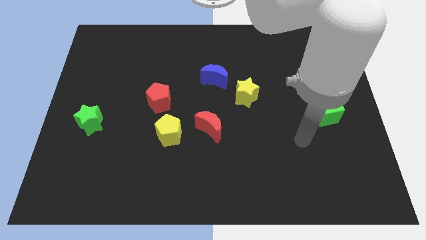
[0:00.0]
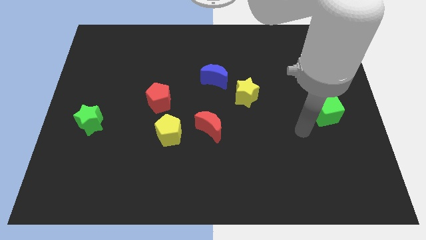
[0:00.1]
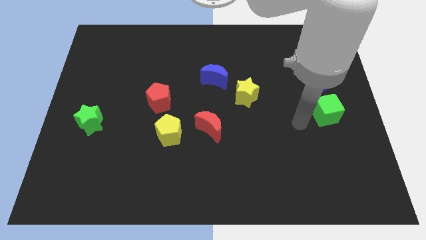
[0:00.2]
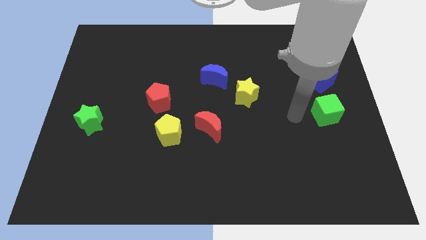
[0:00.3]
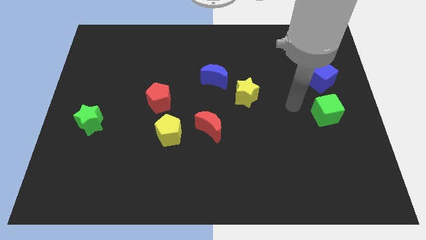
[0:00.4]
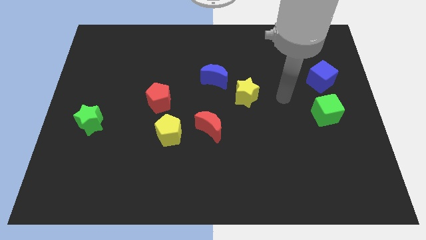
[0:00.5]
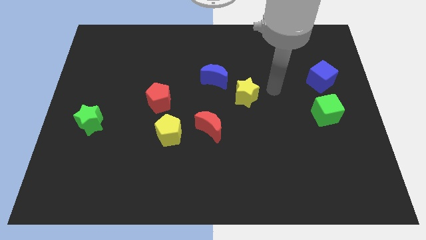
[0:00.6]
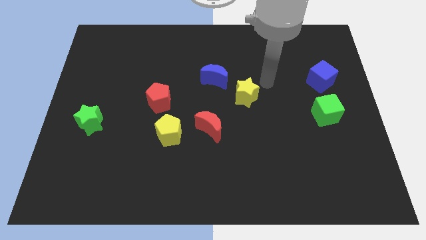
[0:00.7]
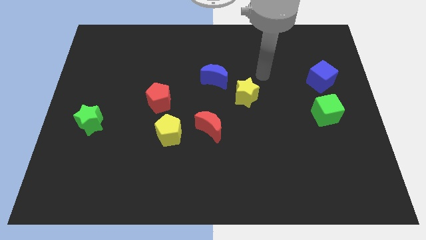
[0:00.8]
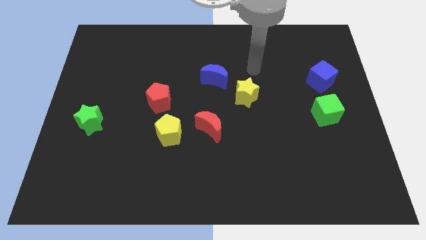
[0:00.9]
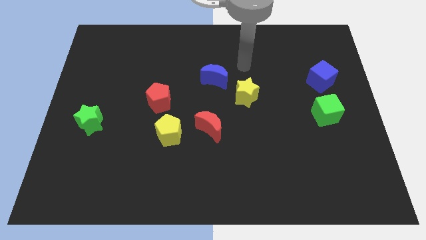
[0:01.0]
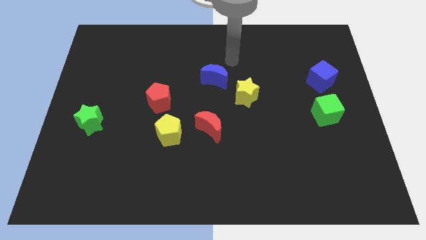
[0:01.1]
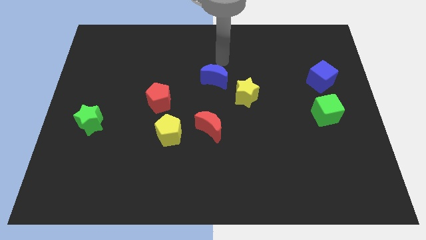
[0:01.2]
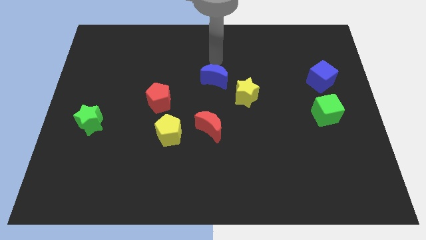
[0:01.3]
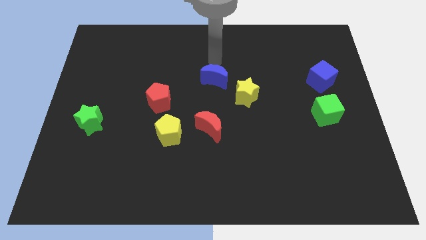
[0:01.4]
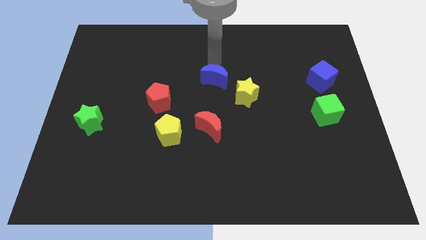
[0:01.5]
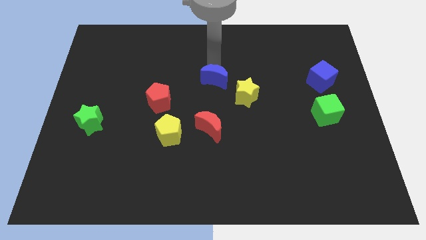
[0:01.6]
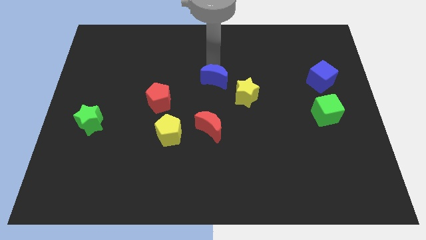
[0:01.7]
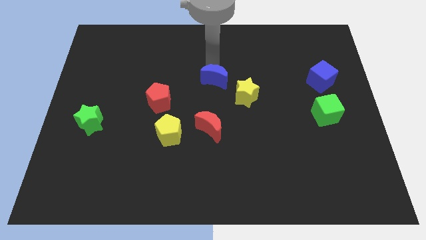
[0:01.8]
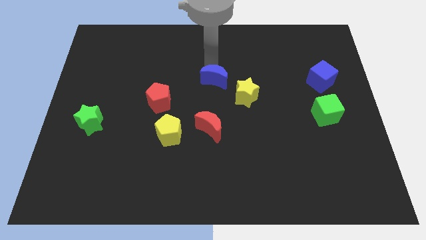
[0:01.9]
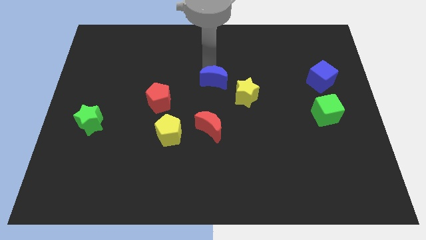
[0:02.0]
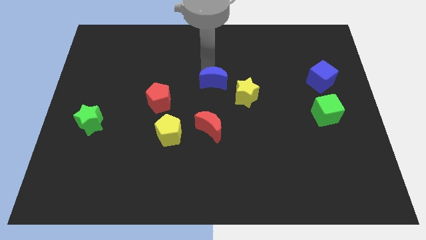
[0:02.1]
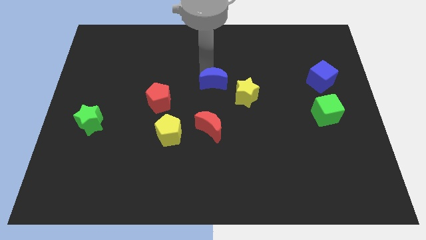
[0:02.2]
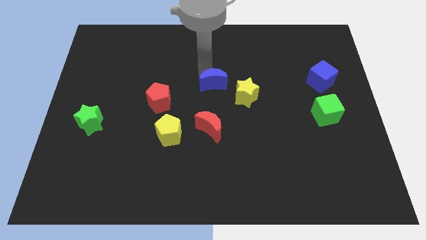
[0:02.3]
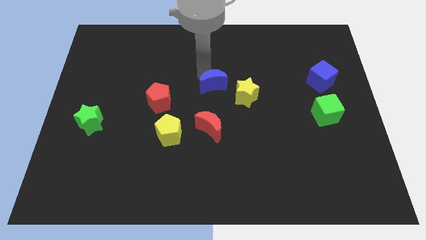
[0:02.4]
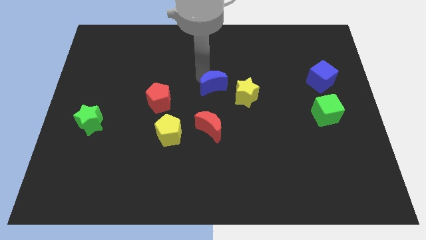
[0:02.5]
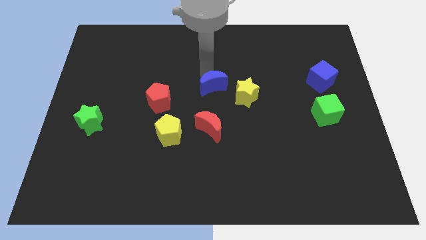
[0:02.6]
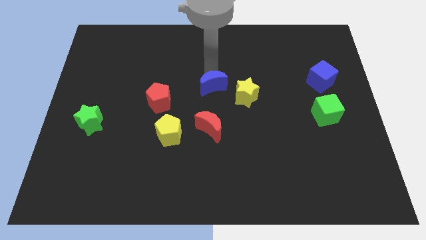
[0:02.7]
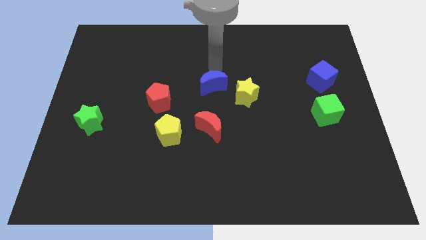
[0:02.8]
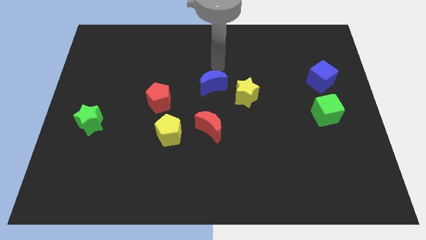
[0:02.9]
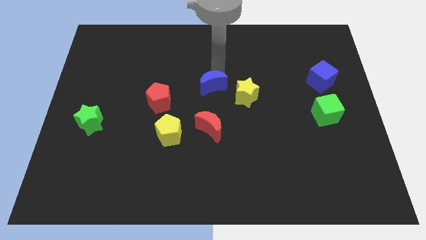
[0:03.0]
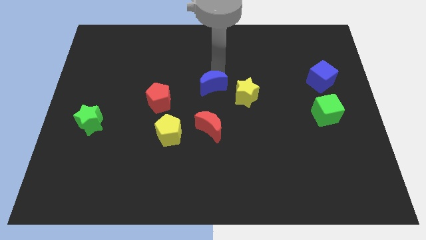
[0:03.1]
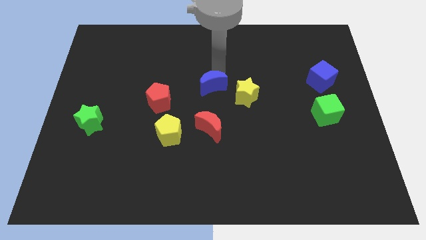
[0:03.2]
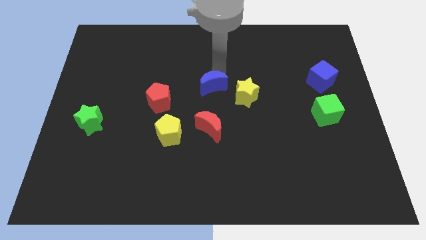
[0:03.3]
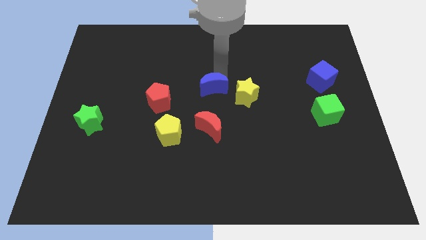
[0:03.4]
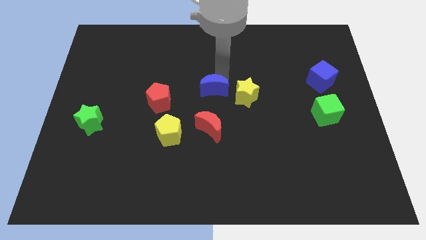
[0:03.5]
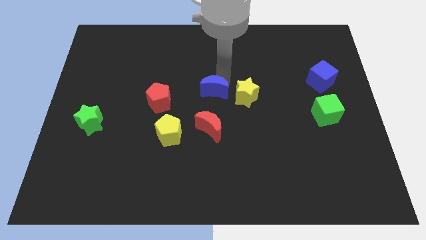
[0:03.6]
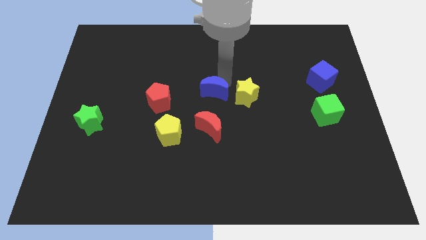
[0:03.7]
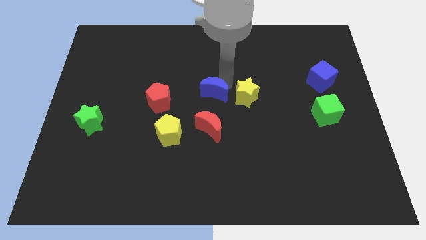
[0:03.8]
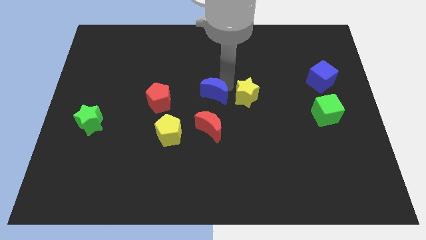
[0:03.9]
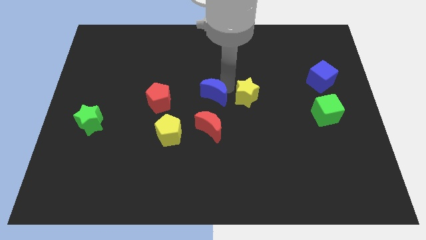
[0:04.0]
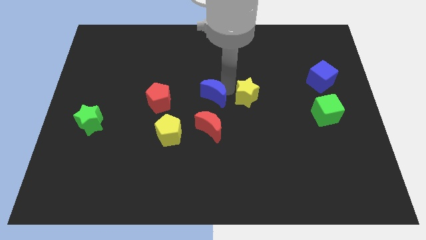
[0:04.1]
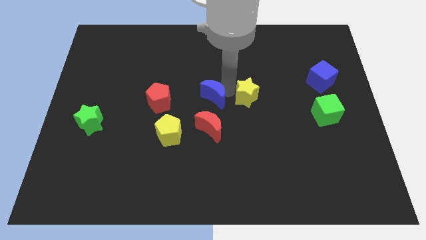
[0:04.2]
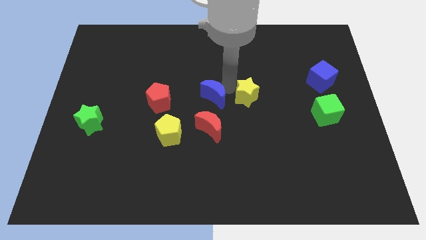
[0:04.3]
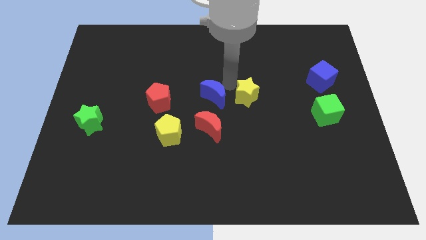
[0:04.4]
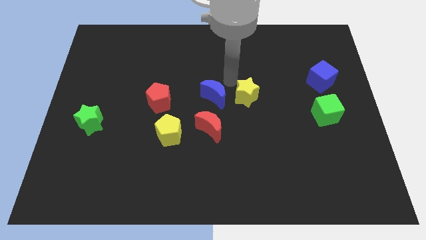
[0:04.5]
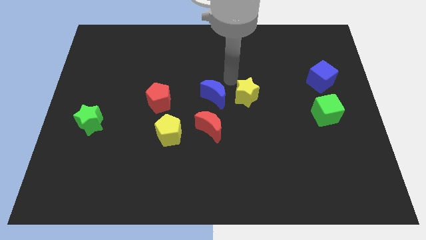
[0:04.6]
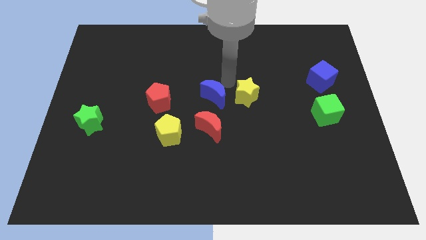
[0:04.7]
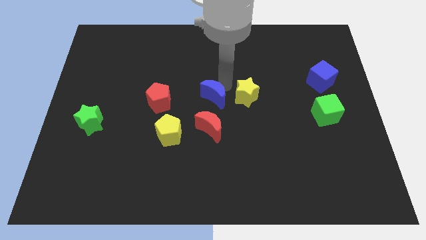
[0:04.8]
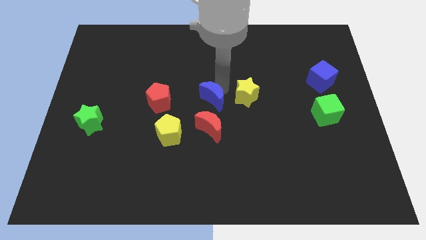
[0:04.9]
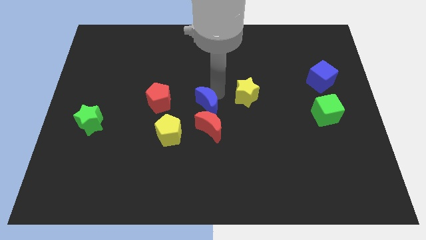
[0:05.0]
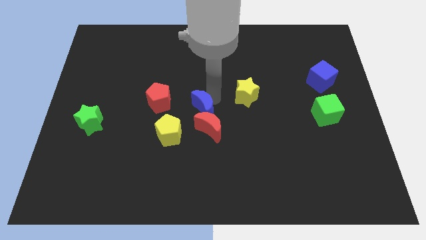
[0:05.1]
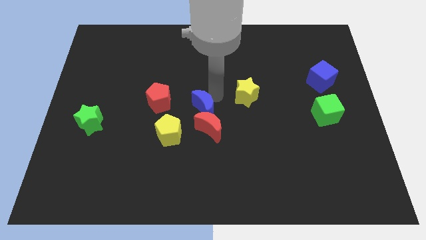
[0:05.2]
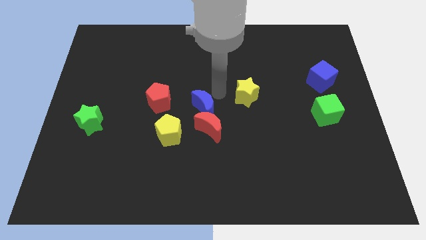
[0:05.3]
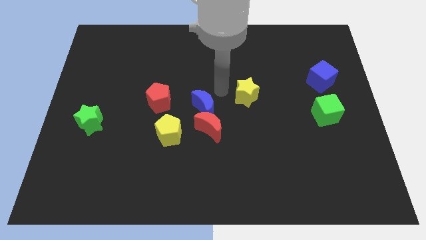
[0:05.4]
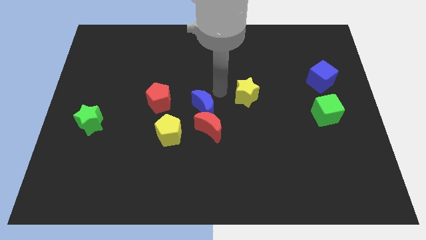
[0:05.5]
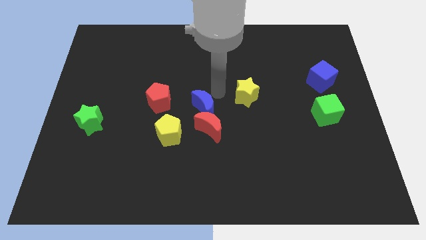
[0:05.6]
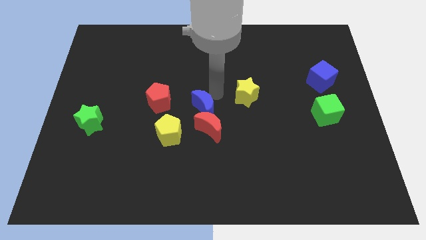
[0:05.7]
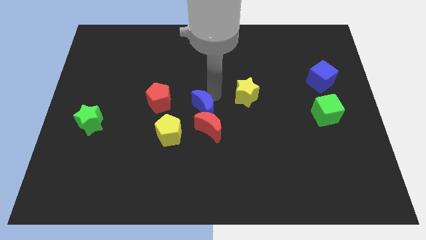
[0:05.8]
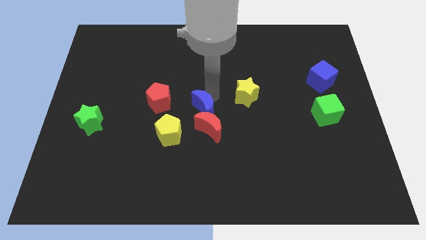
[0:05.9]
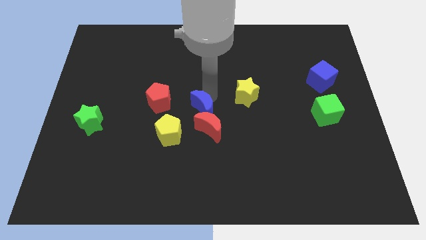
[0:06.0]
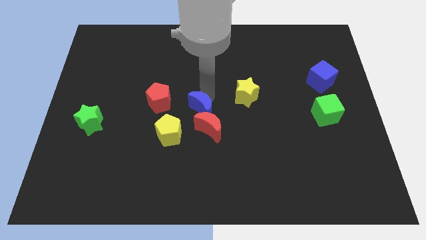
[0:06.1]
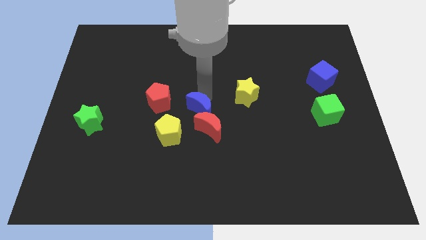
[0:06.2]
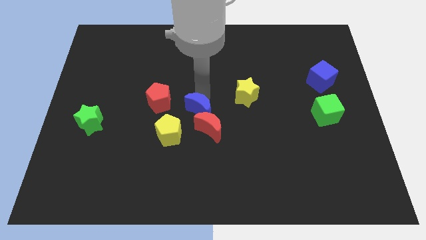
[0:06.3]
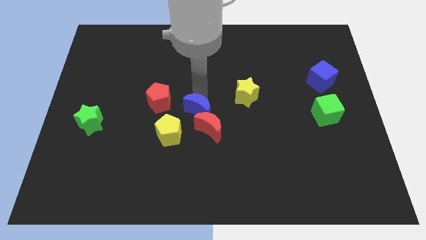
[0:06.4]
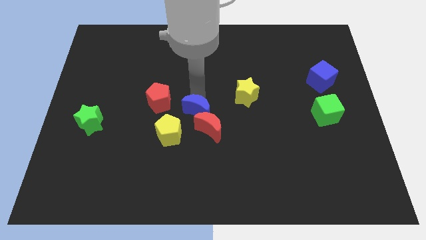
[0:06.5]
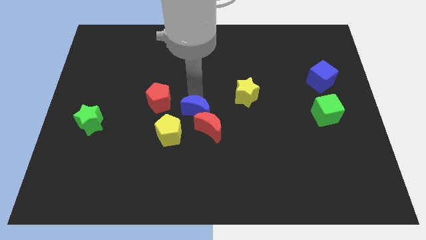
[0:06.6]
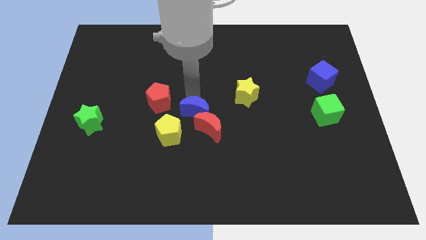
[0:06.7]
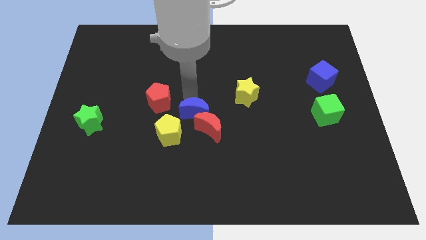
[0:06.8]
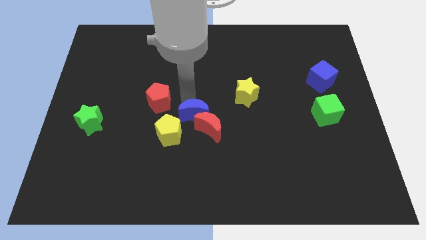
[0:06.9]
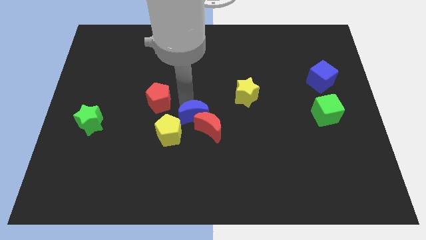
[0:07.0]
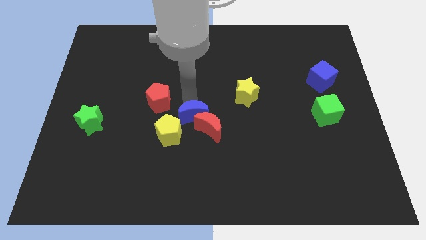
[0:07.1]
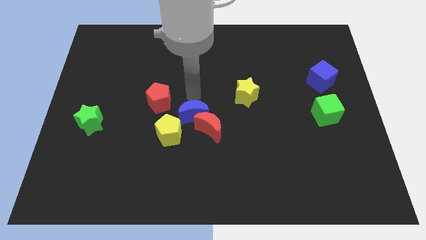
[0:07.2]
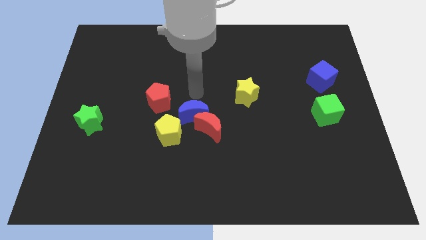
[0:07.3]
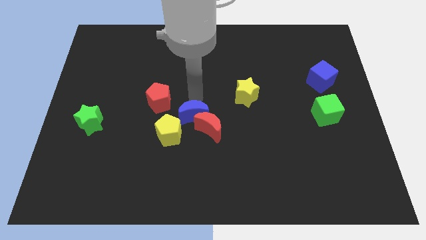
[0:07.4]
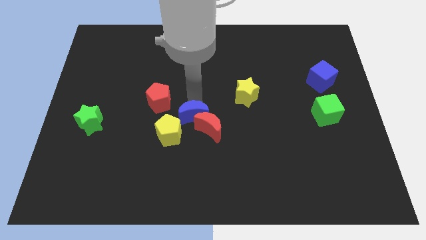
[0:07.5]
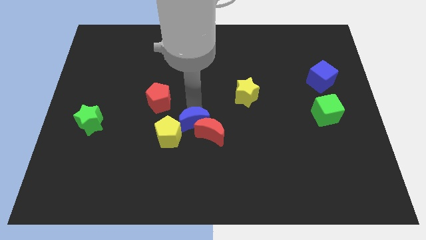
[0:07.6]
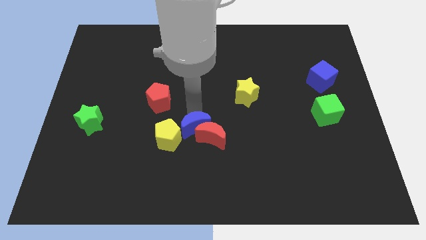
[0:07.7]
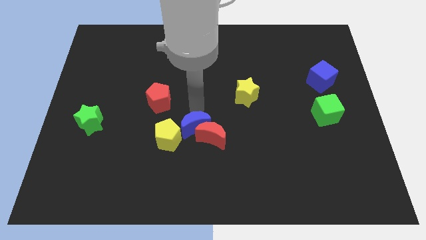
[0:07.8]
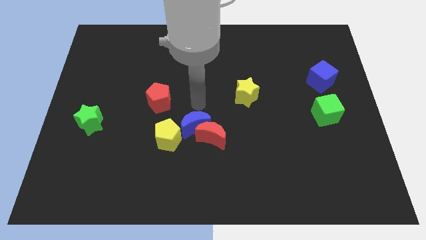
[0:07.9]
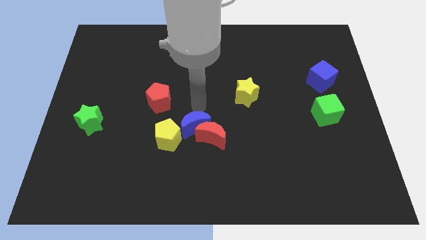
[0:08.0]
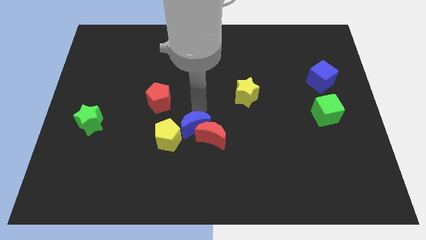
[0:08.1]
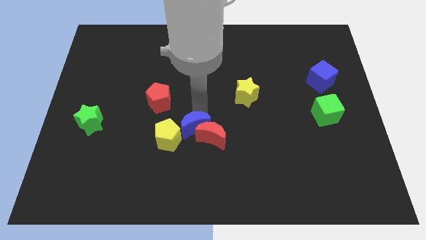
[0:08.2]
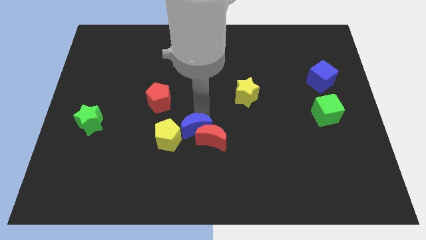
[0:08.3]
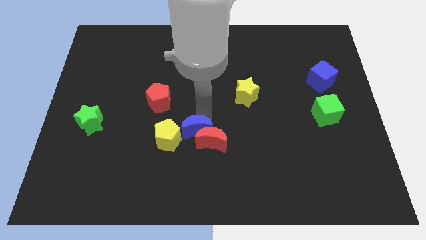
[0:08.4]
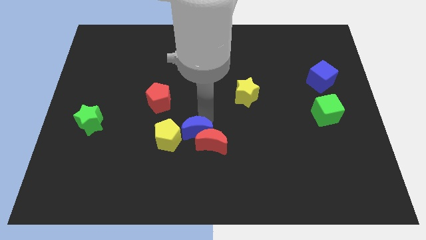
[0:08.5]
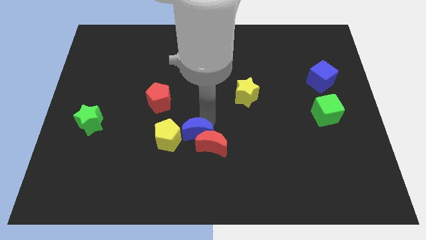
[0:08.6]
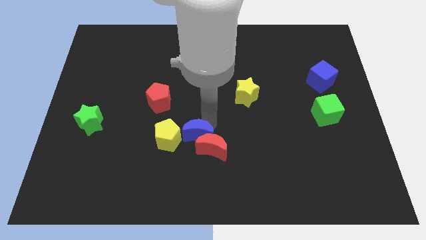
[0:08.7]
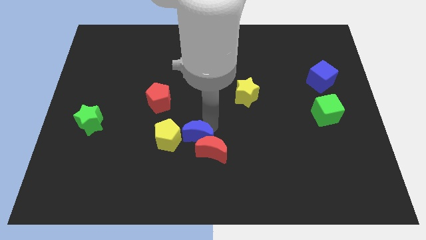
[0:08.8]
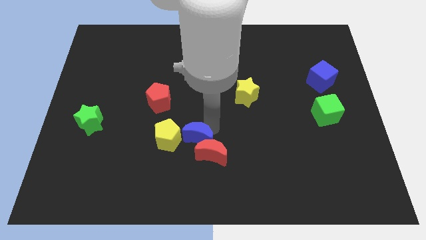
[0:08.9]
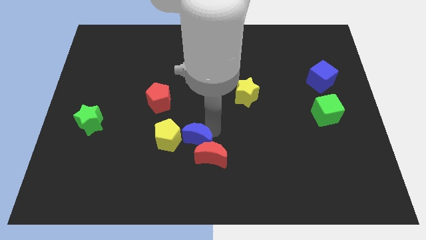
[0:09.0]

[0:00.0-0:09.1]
put the blue moon to the bottom right side of the yellow pentagon
